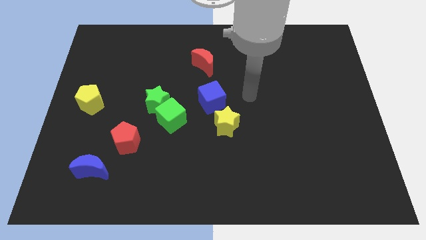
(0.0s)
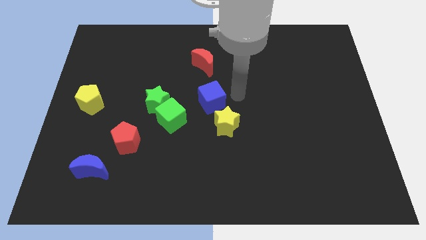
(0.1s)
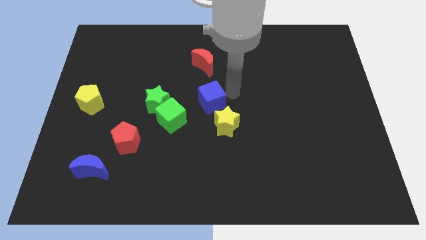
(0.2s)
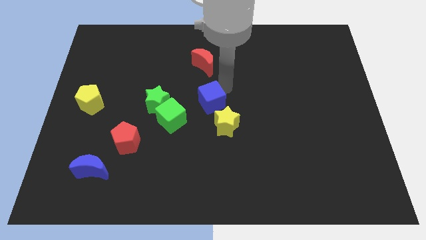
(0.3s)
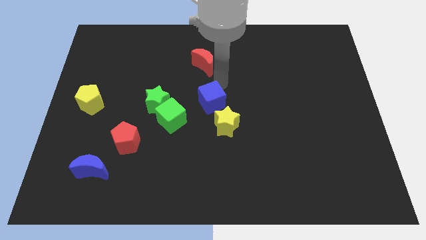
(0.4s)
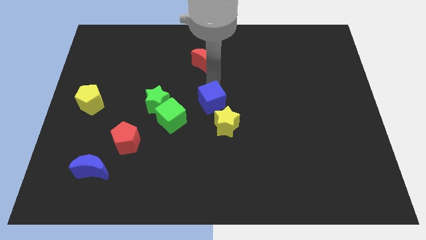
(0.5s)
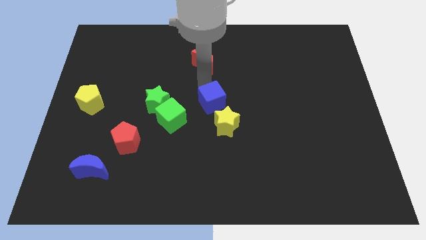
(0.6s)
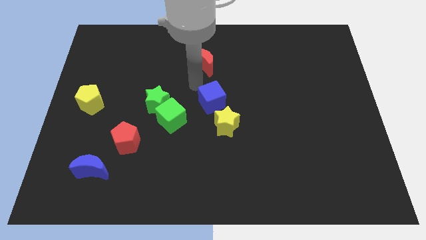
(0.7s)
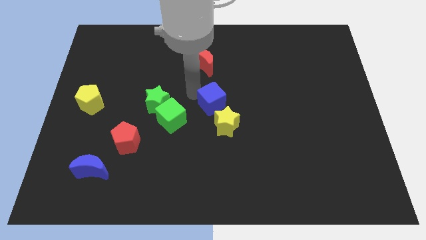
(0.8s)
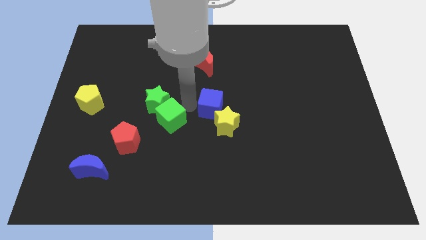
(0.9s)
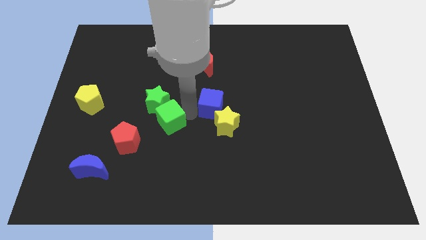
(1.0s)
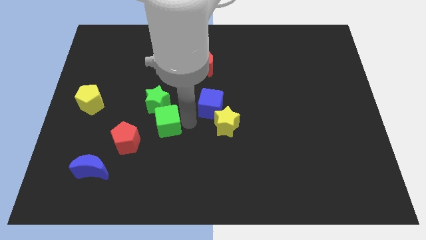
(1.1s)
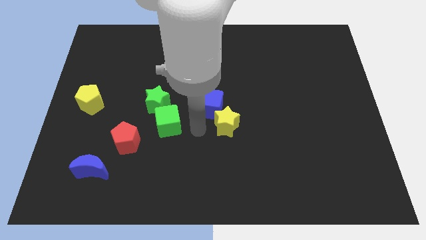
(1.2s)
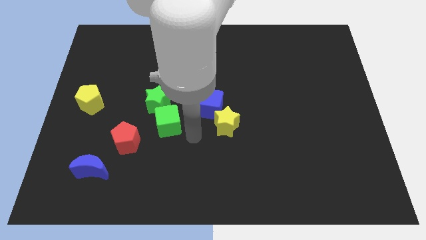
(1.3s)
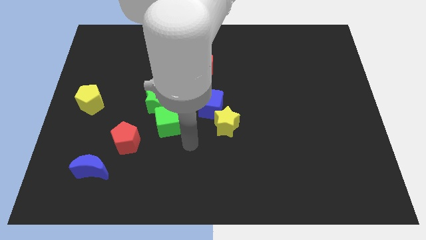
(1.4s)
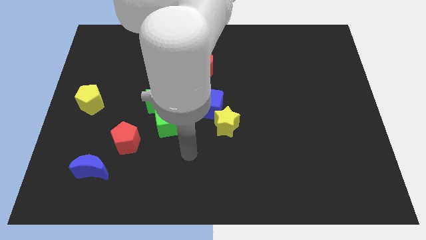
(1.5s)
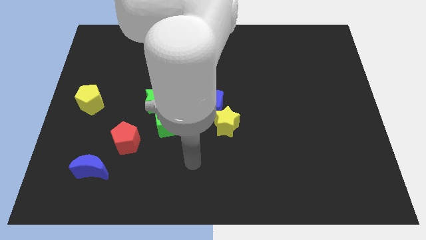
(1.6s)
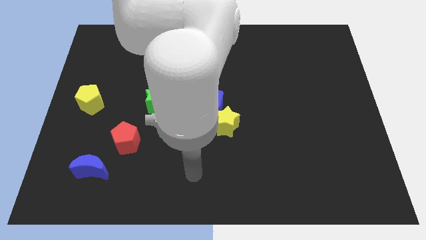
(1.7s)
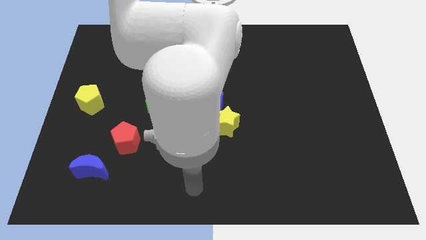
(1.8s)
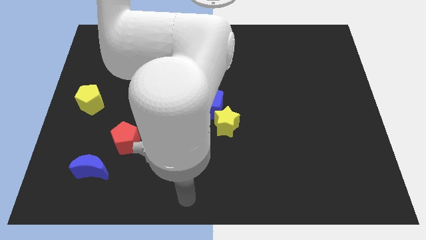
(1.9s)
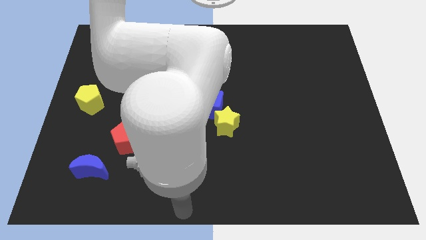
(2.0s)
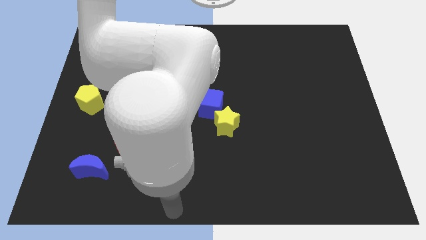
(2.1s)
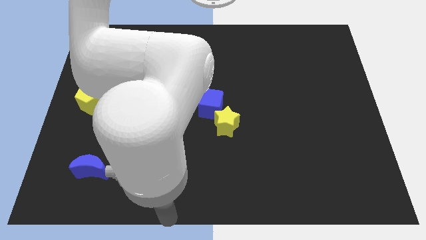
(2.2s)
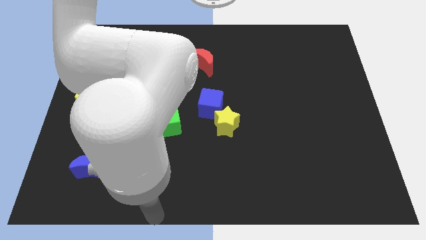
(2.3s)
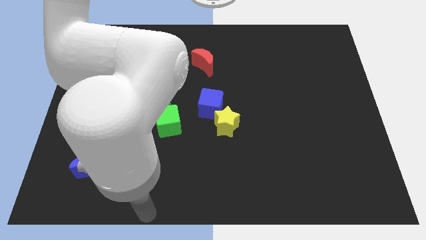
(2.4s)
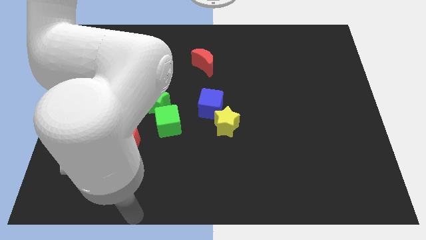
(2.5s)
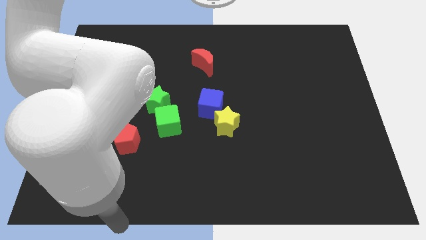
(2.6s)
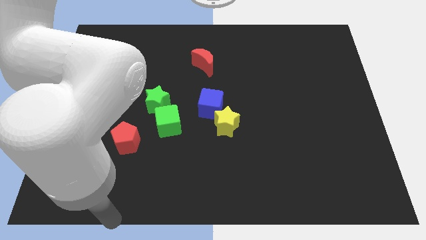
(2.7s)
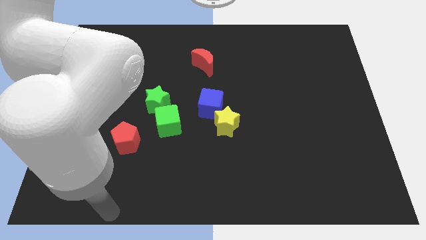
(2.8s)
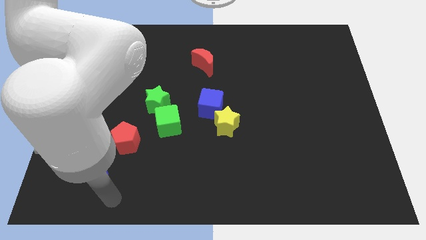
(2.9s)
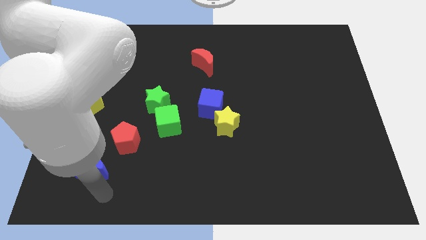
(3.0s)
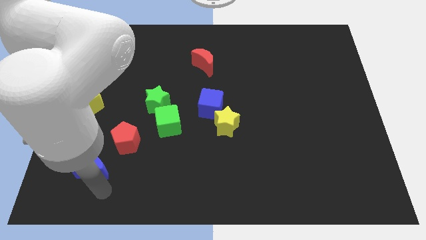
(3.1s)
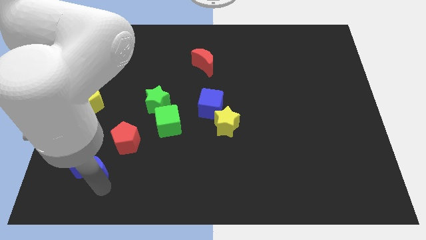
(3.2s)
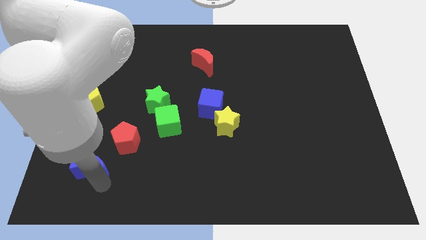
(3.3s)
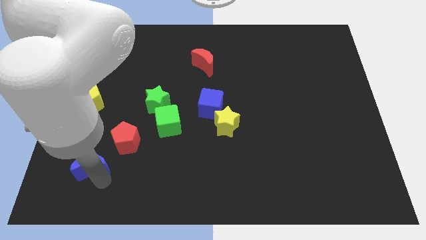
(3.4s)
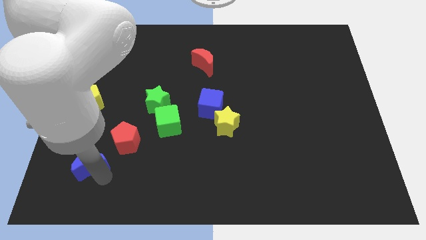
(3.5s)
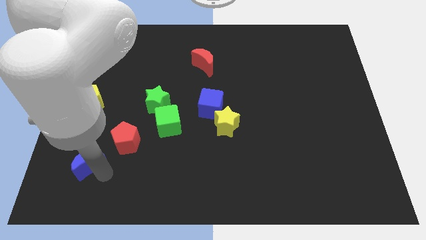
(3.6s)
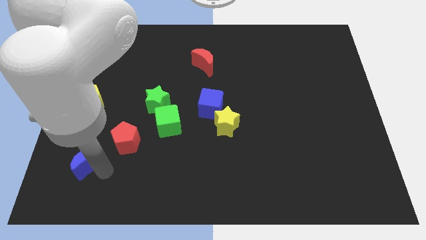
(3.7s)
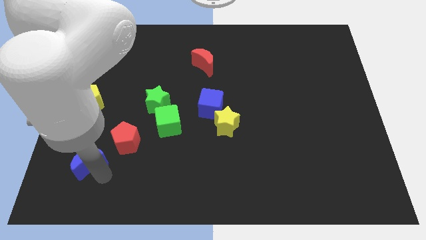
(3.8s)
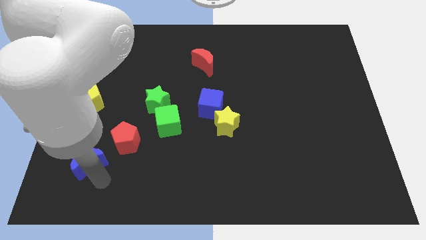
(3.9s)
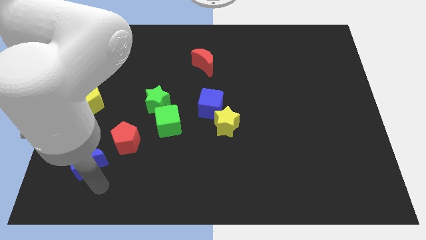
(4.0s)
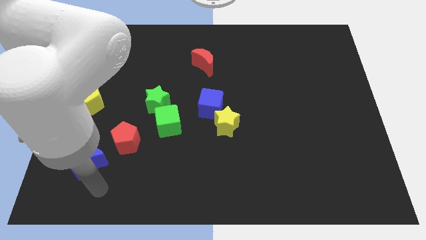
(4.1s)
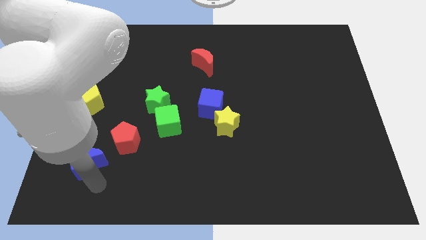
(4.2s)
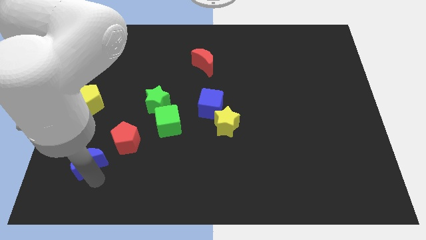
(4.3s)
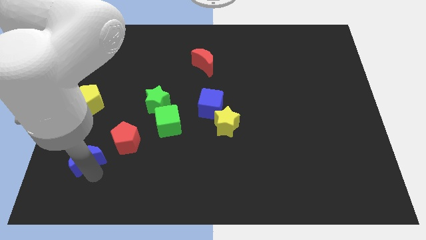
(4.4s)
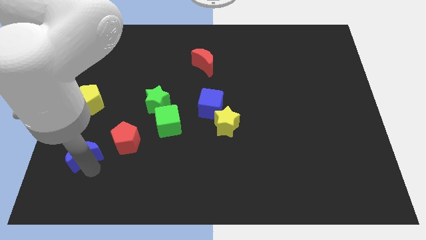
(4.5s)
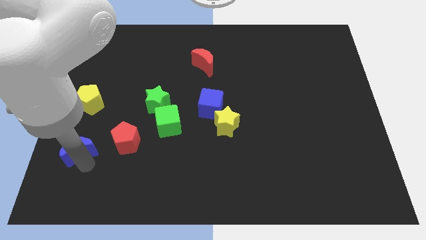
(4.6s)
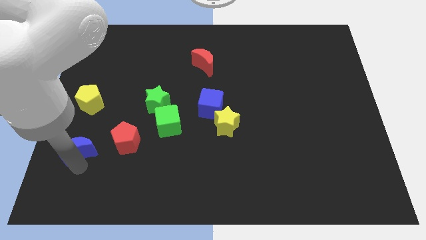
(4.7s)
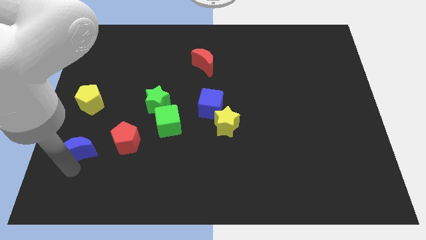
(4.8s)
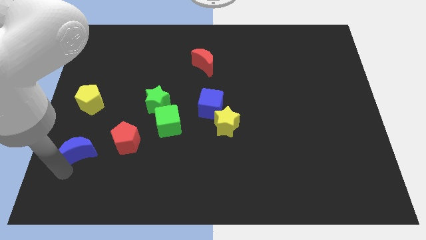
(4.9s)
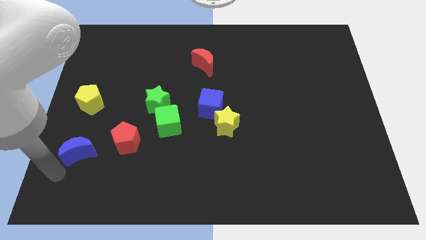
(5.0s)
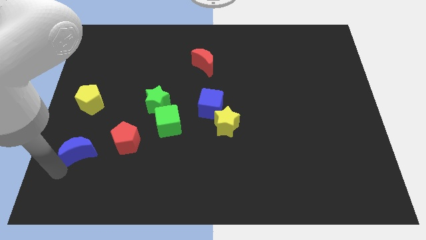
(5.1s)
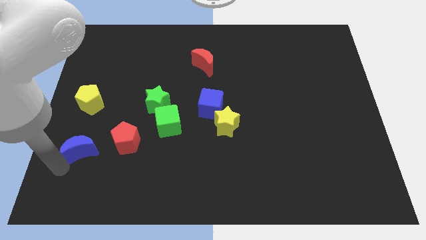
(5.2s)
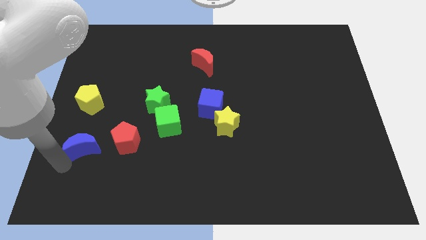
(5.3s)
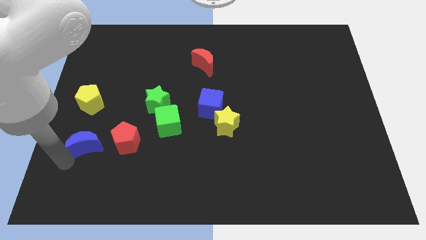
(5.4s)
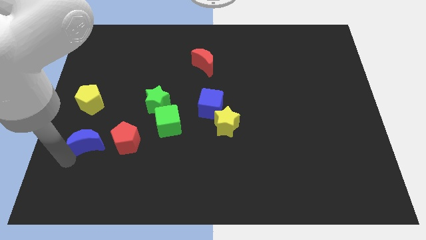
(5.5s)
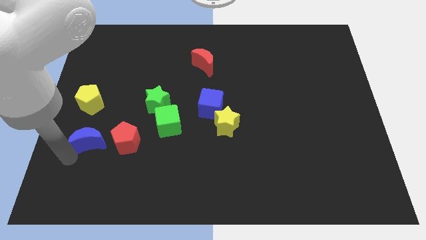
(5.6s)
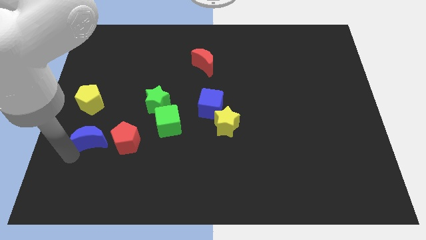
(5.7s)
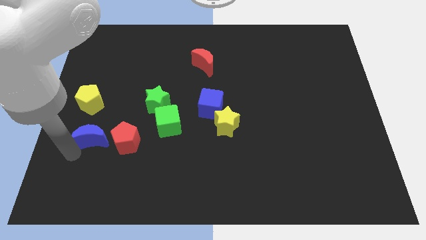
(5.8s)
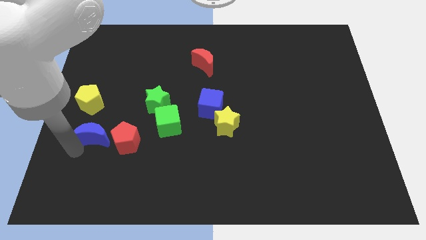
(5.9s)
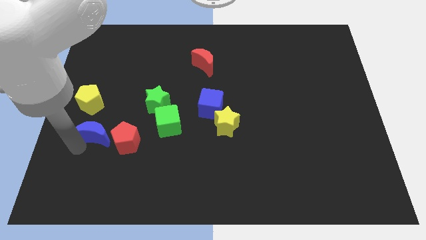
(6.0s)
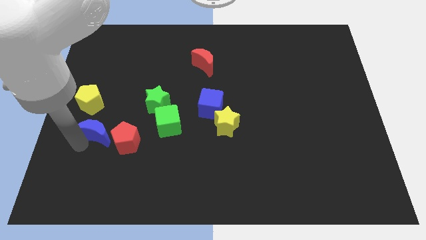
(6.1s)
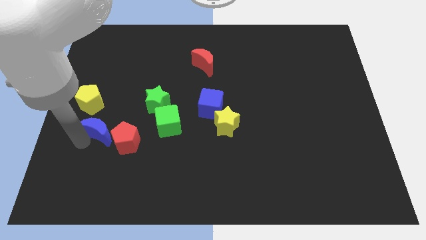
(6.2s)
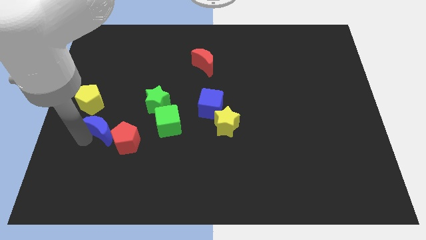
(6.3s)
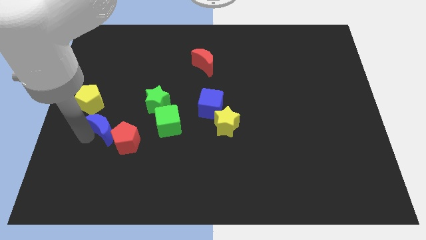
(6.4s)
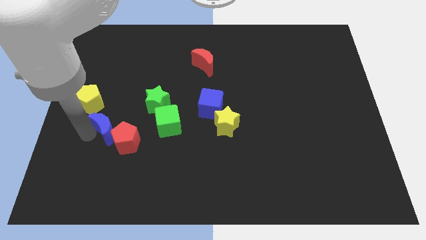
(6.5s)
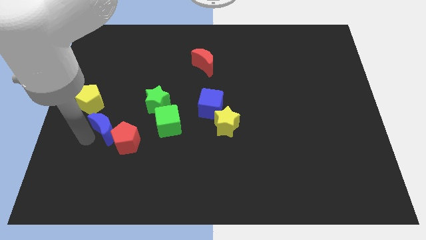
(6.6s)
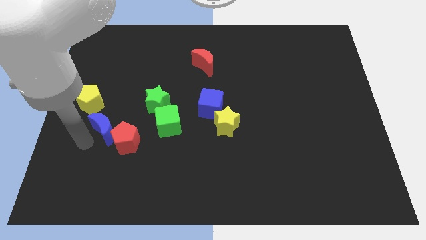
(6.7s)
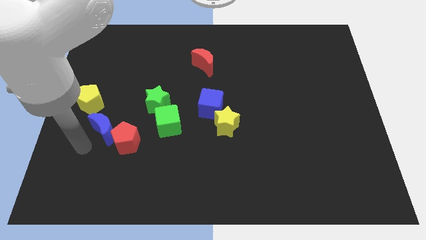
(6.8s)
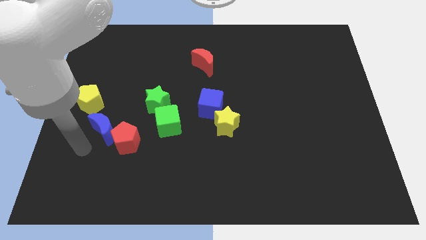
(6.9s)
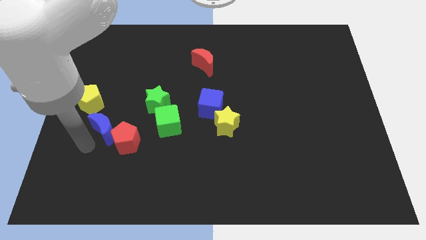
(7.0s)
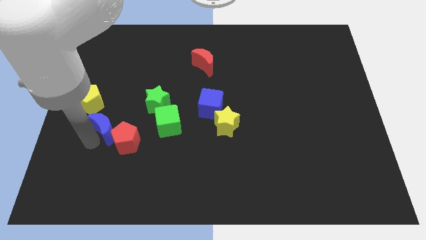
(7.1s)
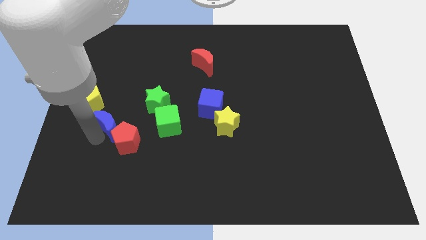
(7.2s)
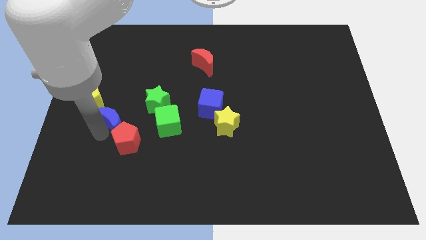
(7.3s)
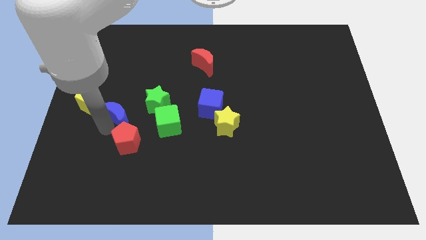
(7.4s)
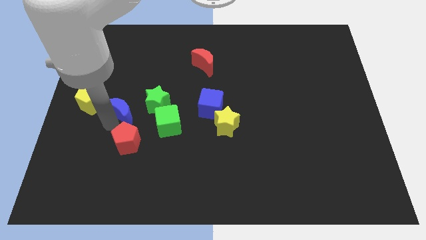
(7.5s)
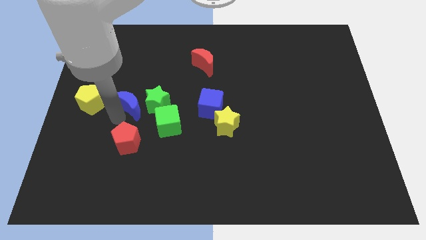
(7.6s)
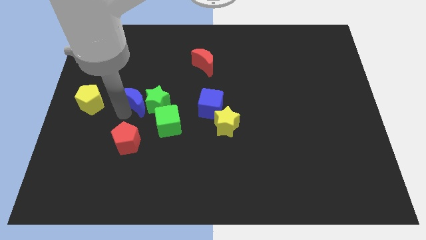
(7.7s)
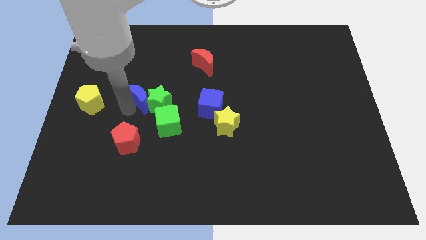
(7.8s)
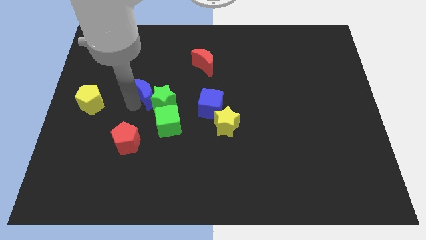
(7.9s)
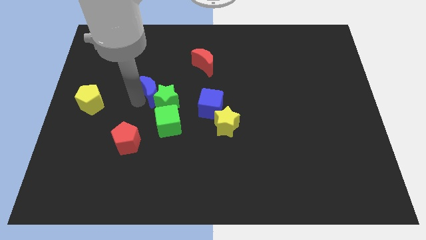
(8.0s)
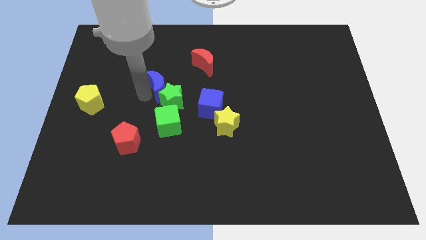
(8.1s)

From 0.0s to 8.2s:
slide the blue moon diagonally up and right
